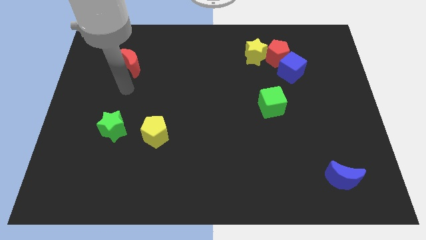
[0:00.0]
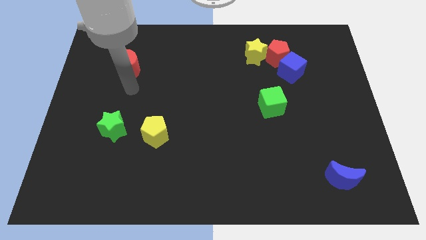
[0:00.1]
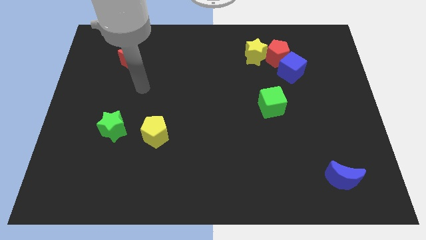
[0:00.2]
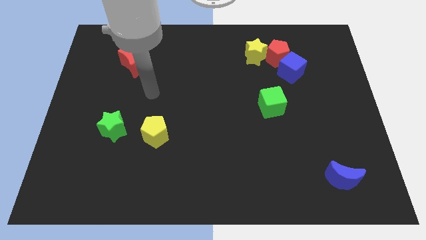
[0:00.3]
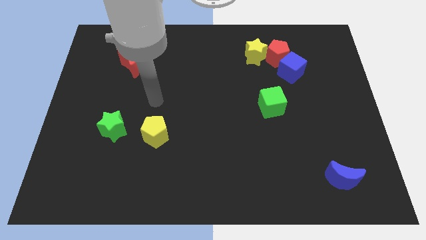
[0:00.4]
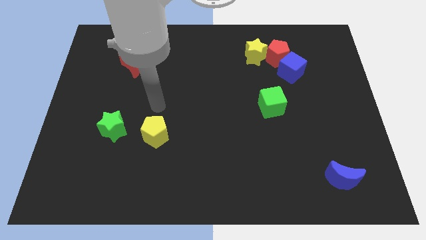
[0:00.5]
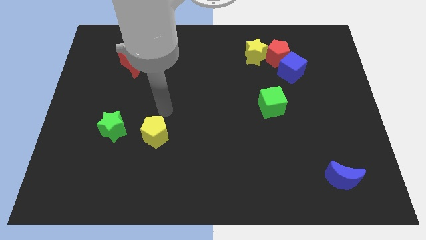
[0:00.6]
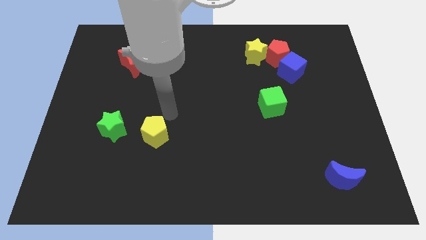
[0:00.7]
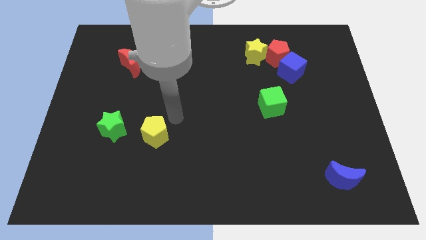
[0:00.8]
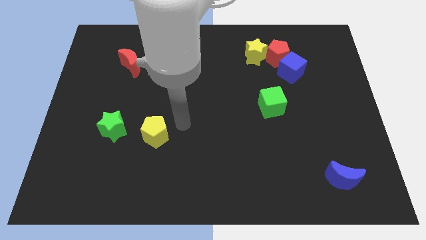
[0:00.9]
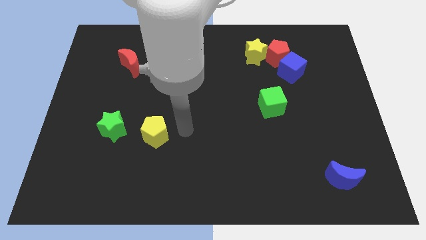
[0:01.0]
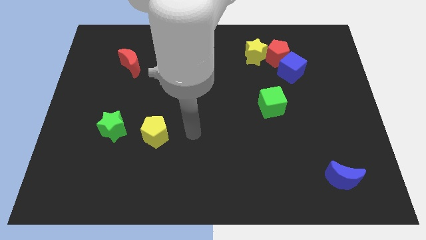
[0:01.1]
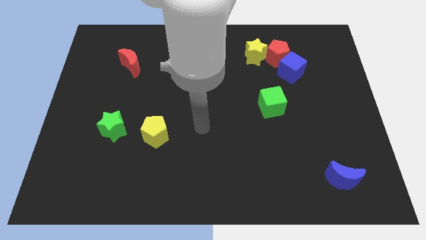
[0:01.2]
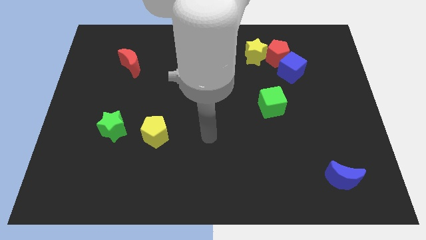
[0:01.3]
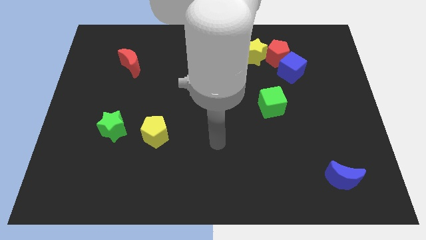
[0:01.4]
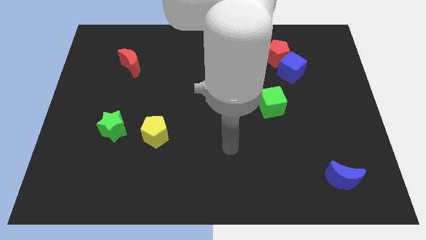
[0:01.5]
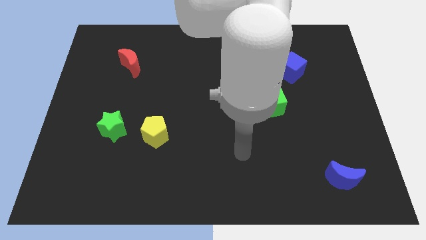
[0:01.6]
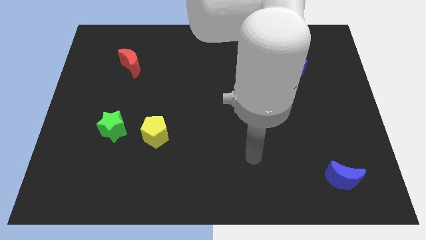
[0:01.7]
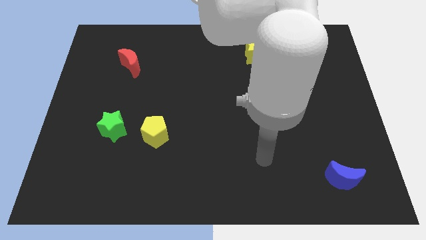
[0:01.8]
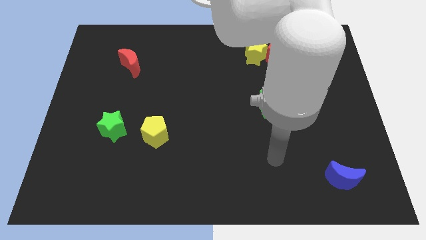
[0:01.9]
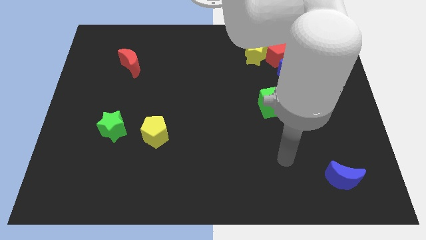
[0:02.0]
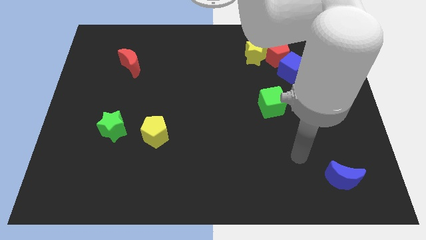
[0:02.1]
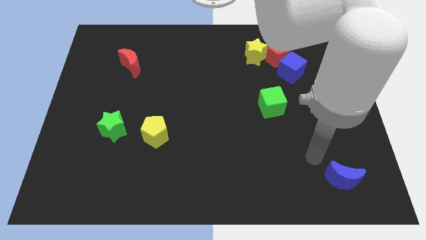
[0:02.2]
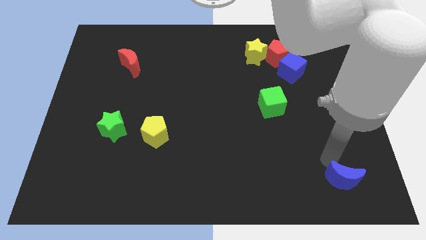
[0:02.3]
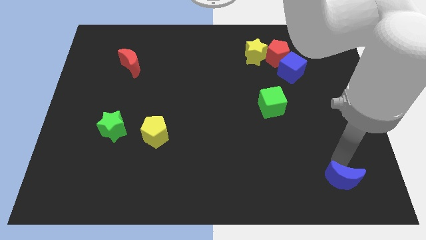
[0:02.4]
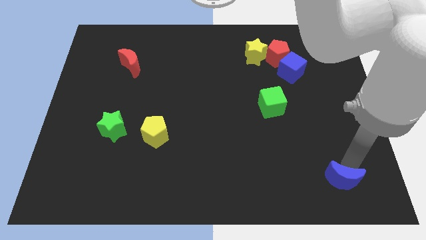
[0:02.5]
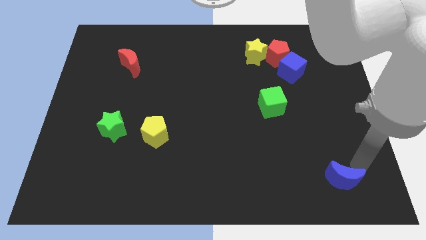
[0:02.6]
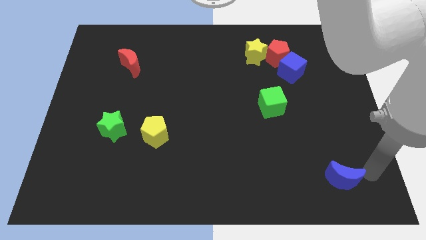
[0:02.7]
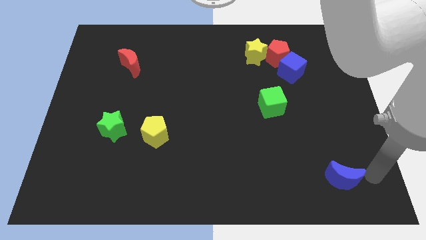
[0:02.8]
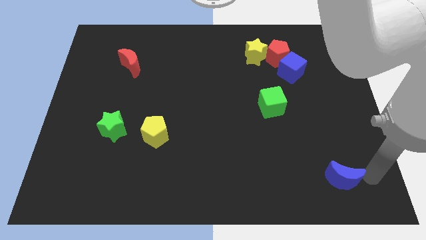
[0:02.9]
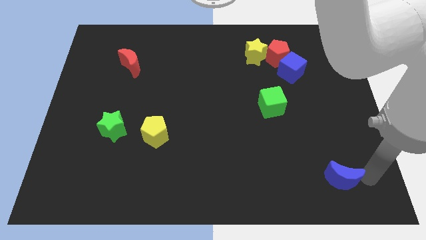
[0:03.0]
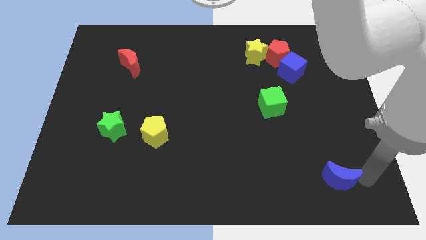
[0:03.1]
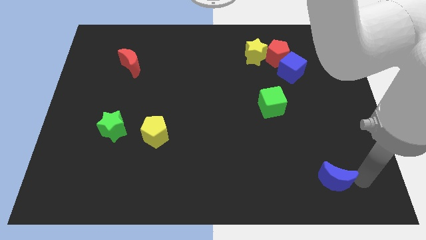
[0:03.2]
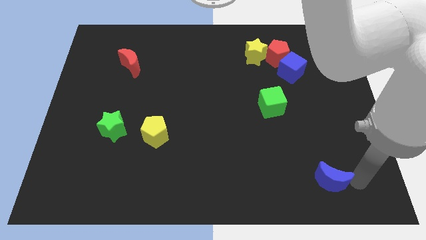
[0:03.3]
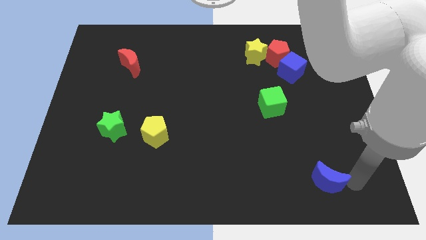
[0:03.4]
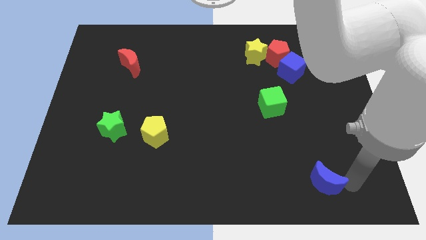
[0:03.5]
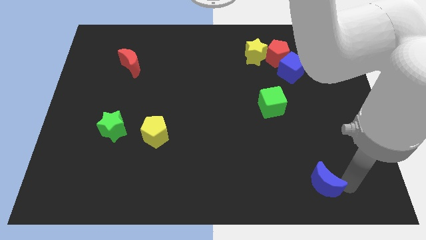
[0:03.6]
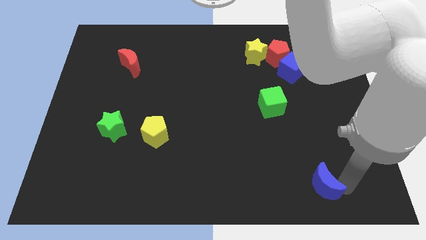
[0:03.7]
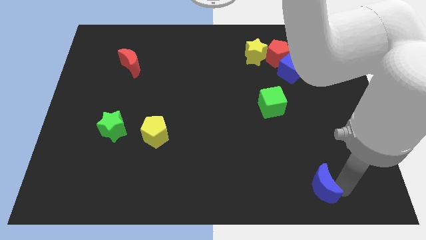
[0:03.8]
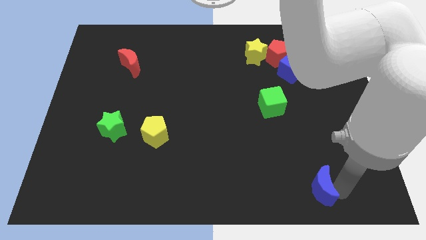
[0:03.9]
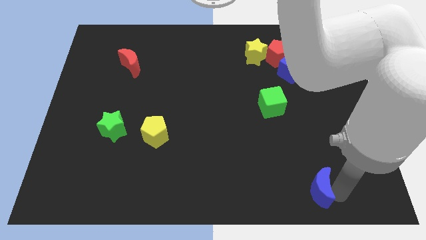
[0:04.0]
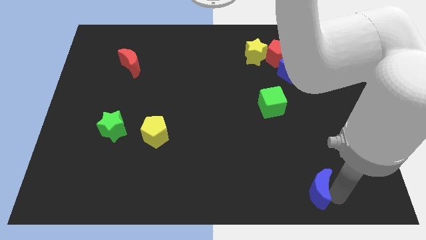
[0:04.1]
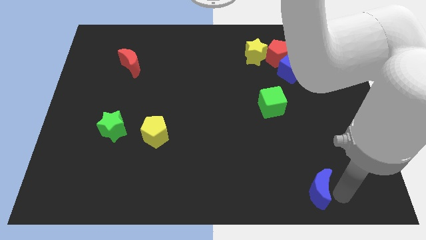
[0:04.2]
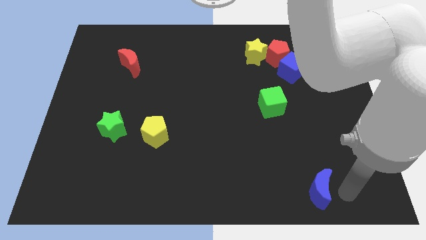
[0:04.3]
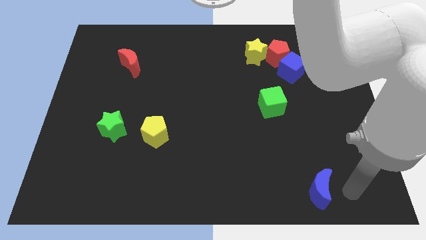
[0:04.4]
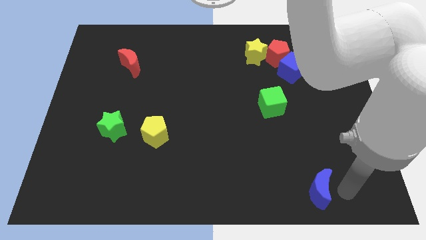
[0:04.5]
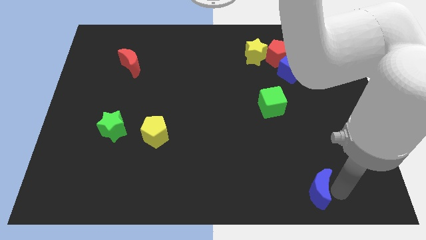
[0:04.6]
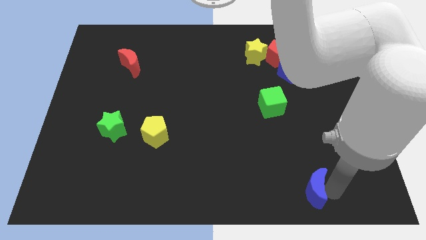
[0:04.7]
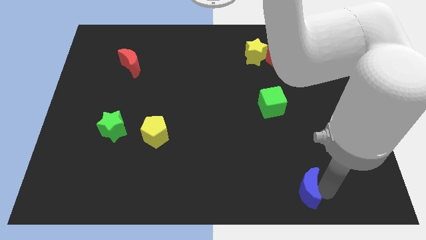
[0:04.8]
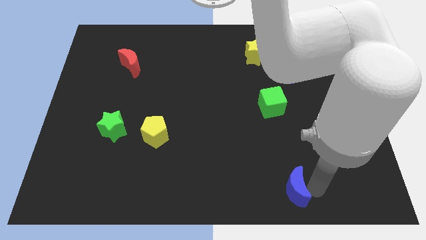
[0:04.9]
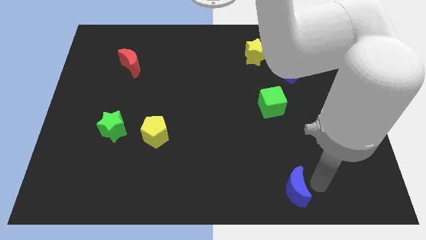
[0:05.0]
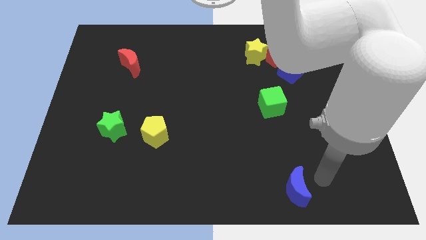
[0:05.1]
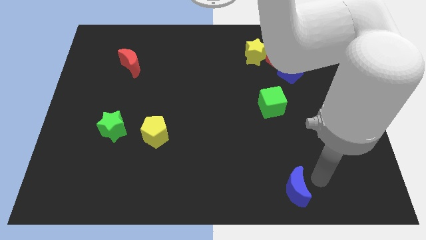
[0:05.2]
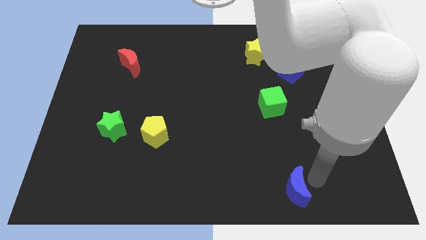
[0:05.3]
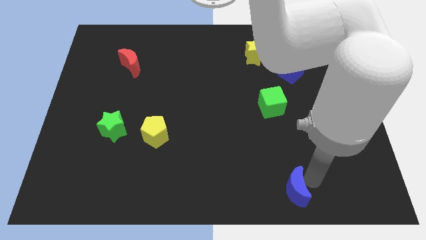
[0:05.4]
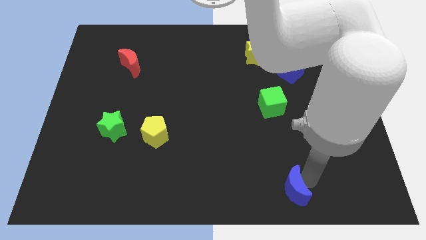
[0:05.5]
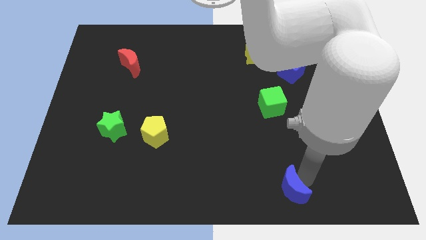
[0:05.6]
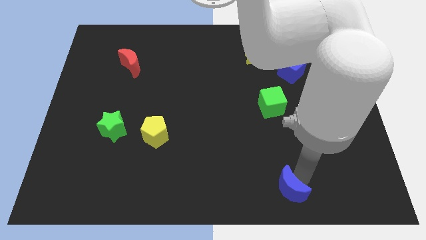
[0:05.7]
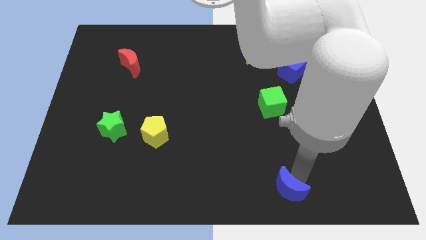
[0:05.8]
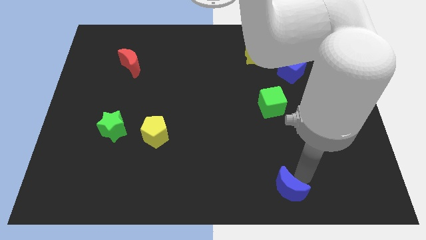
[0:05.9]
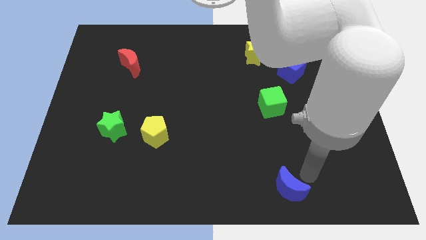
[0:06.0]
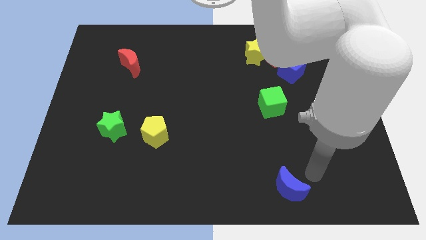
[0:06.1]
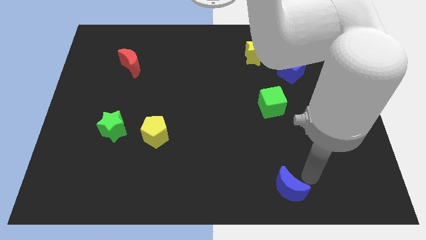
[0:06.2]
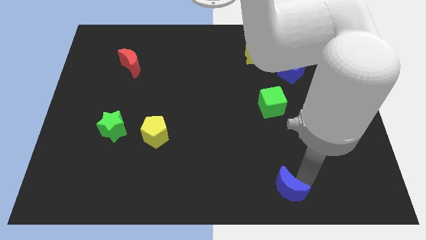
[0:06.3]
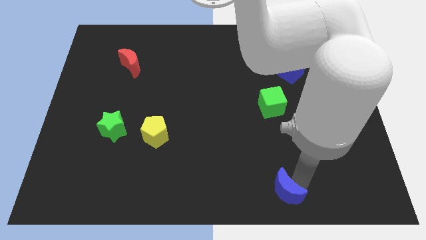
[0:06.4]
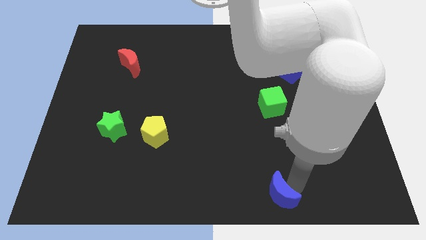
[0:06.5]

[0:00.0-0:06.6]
slide the blue moon to the bottom side
